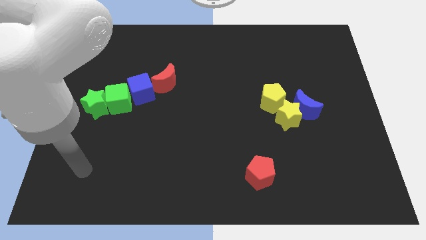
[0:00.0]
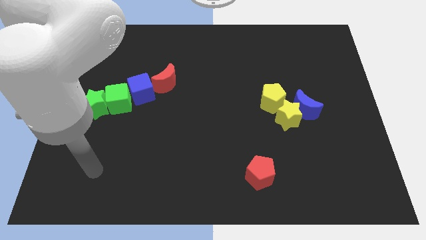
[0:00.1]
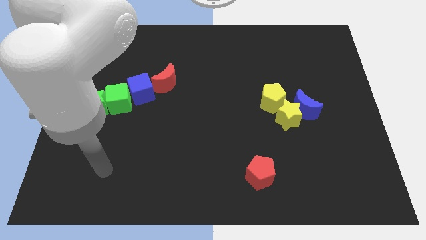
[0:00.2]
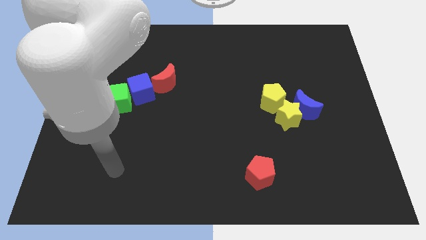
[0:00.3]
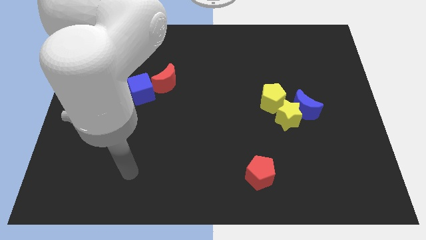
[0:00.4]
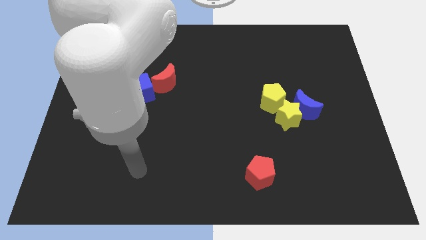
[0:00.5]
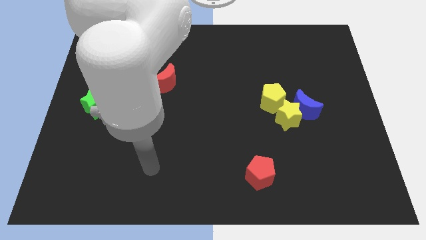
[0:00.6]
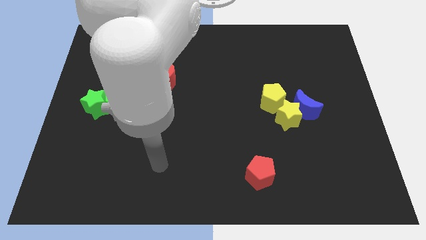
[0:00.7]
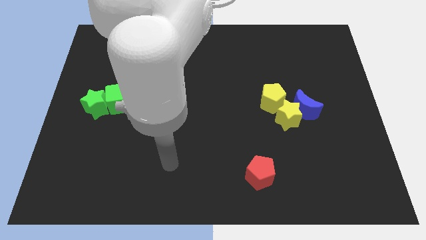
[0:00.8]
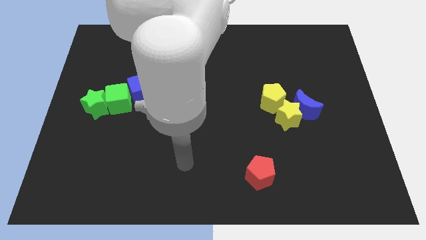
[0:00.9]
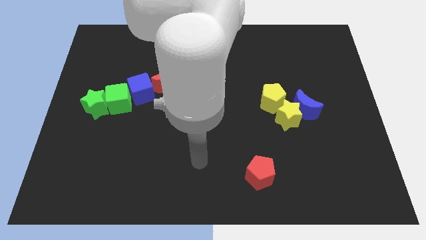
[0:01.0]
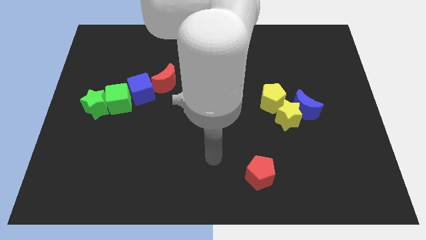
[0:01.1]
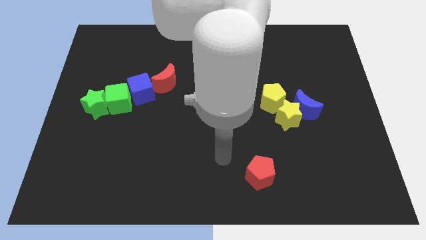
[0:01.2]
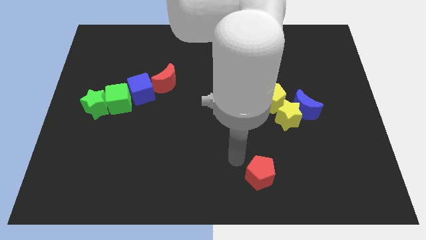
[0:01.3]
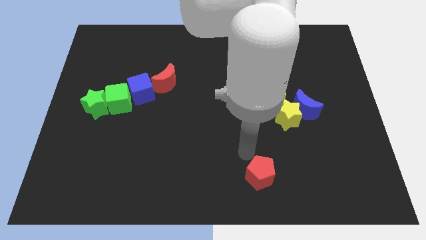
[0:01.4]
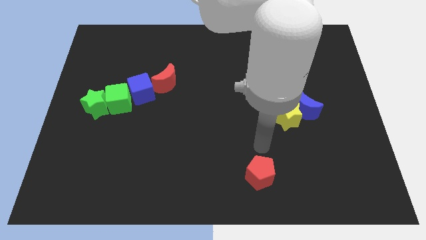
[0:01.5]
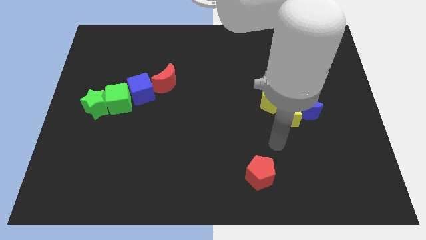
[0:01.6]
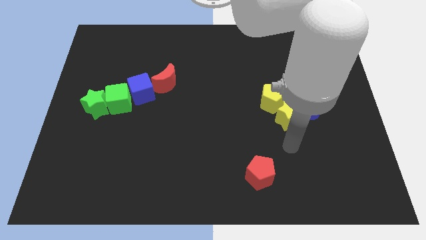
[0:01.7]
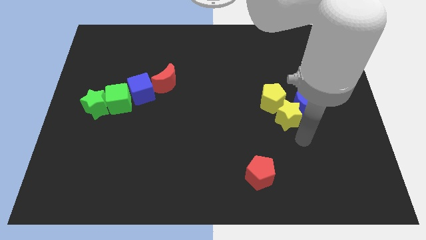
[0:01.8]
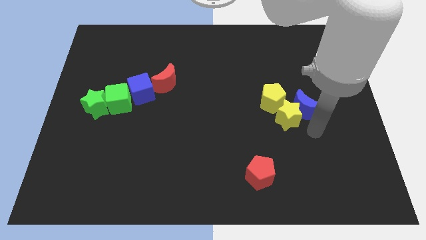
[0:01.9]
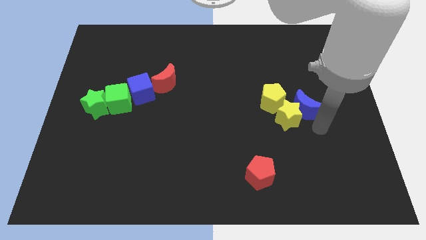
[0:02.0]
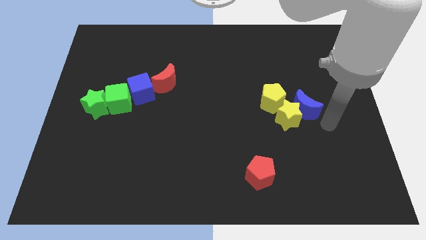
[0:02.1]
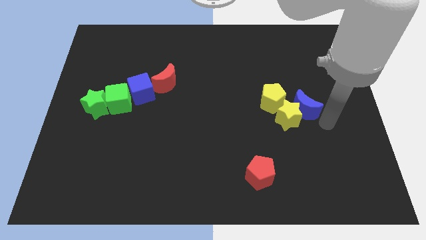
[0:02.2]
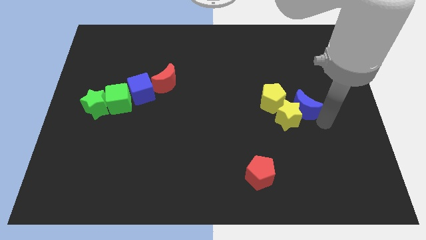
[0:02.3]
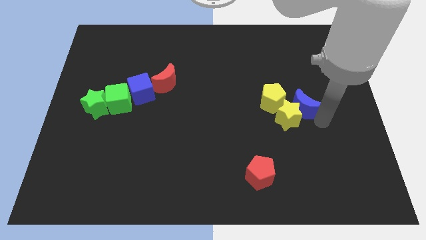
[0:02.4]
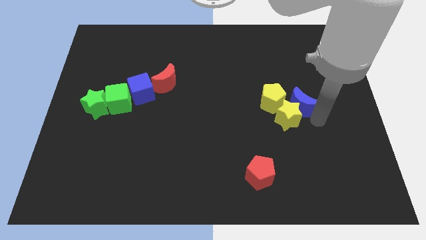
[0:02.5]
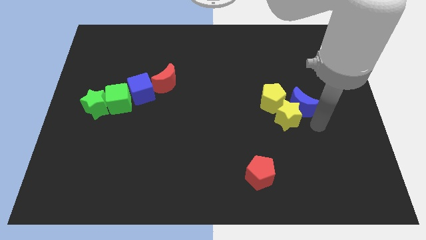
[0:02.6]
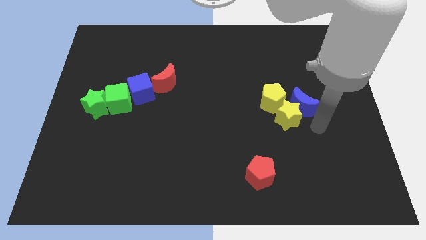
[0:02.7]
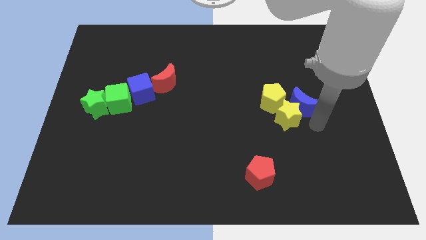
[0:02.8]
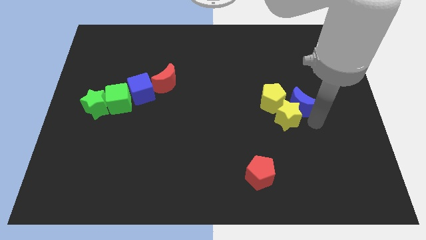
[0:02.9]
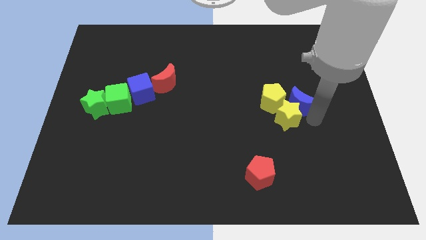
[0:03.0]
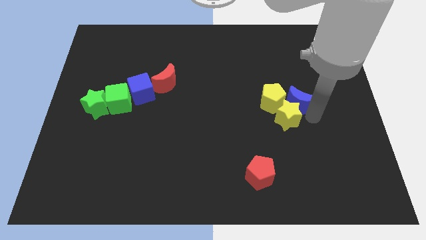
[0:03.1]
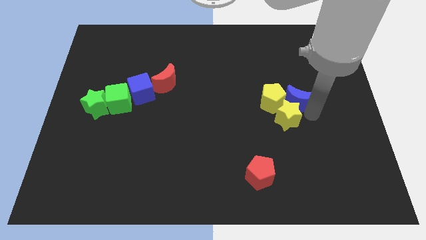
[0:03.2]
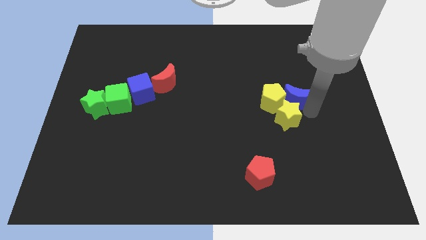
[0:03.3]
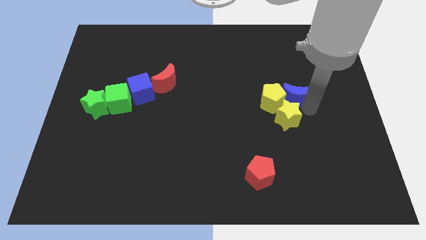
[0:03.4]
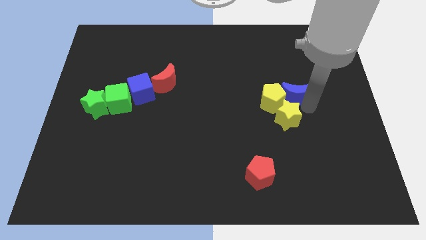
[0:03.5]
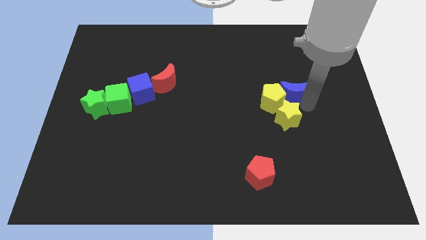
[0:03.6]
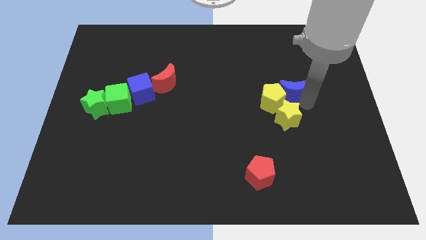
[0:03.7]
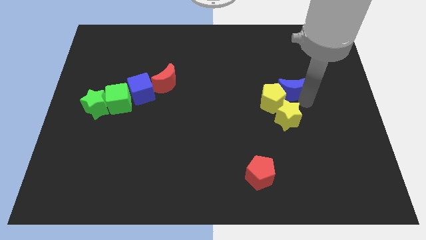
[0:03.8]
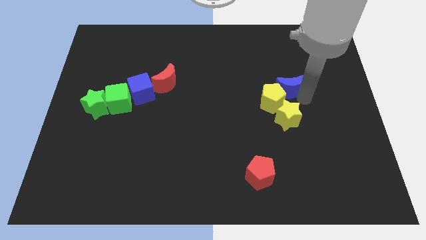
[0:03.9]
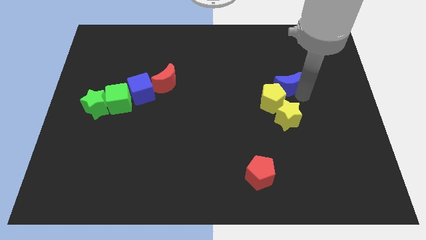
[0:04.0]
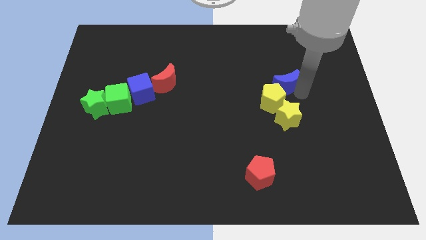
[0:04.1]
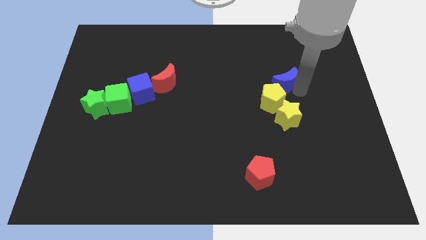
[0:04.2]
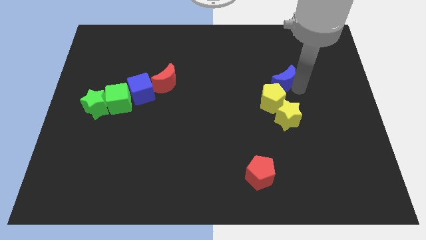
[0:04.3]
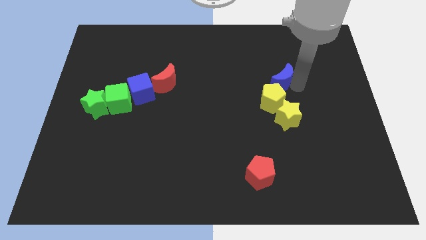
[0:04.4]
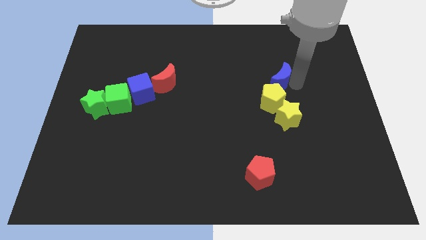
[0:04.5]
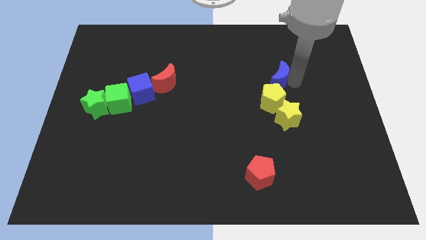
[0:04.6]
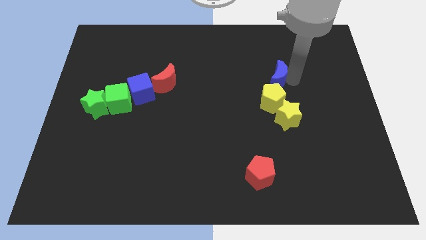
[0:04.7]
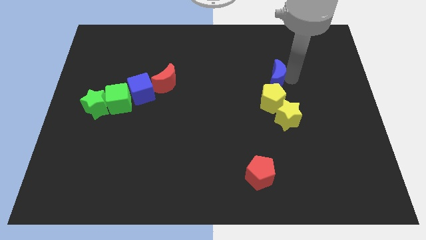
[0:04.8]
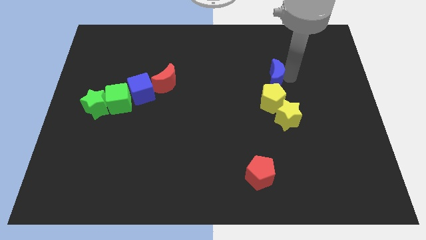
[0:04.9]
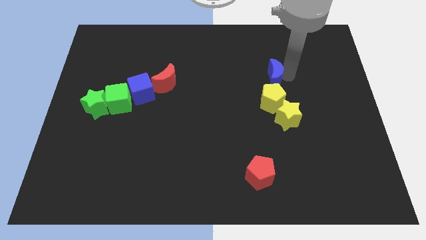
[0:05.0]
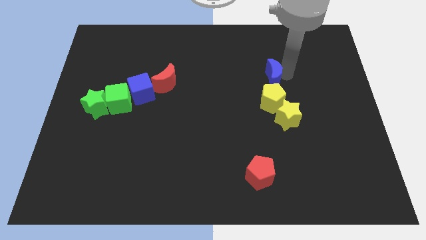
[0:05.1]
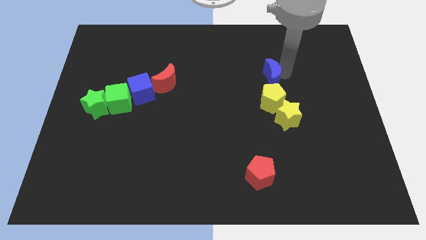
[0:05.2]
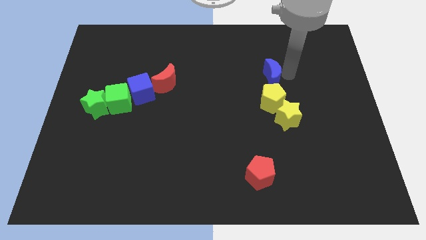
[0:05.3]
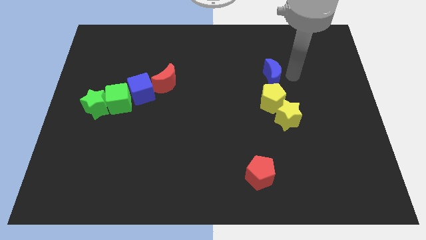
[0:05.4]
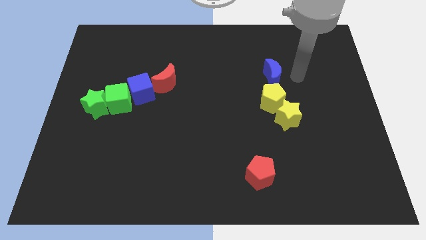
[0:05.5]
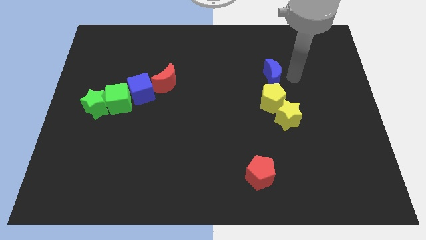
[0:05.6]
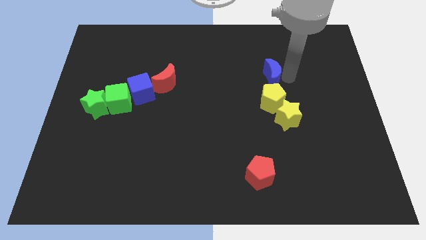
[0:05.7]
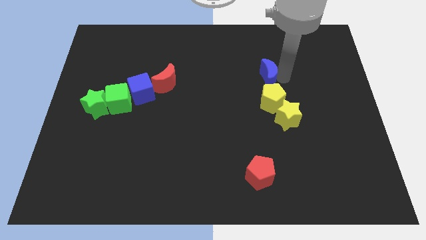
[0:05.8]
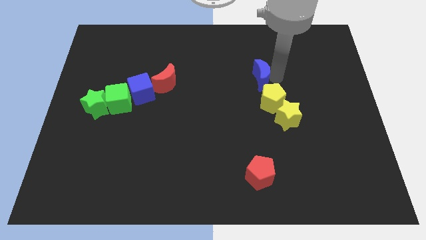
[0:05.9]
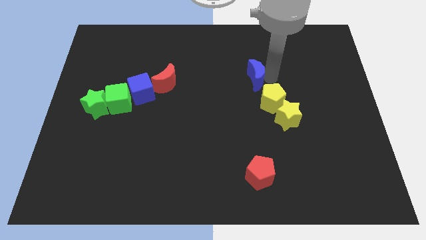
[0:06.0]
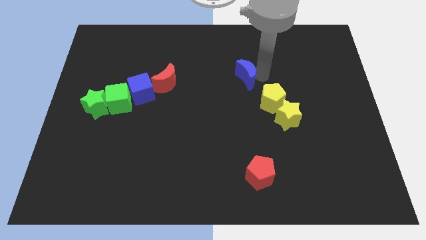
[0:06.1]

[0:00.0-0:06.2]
push the blue moon a bit left

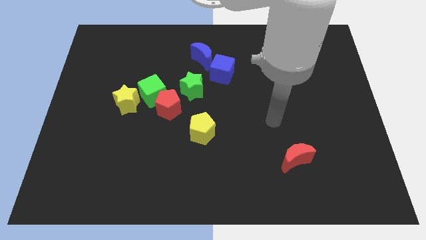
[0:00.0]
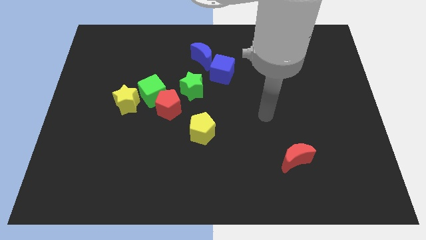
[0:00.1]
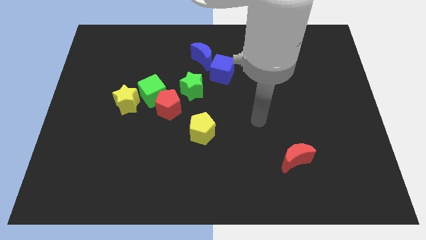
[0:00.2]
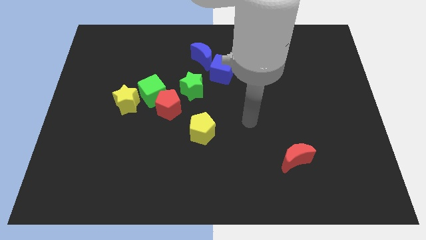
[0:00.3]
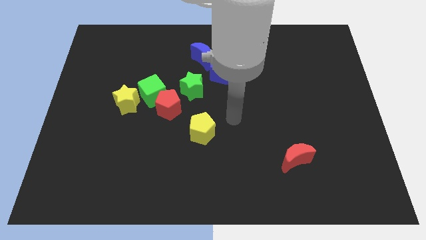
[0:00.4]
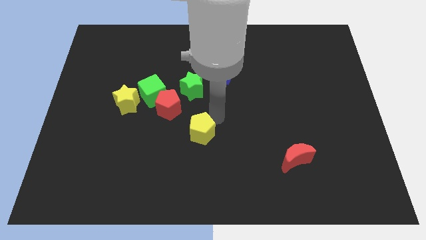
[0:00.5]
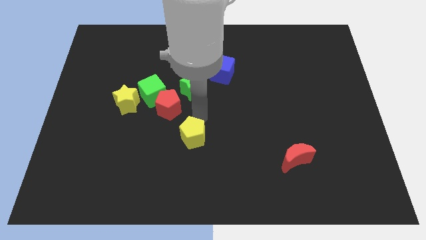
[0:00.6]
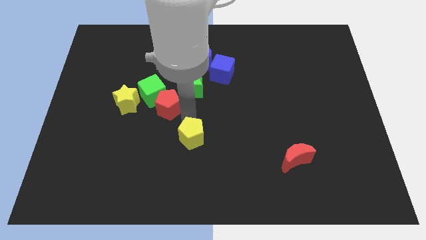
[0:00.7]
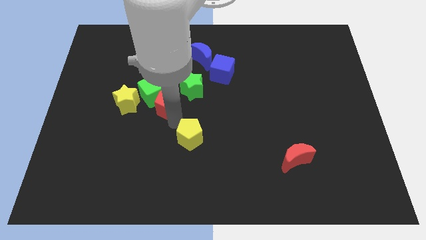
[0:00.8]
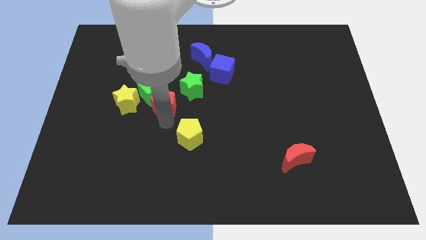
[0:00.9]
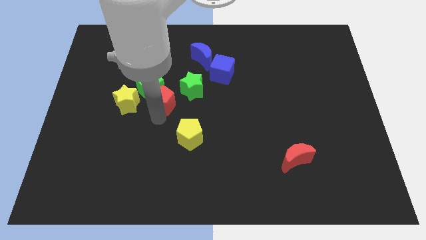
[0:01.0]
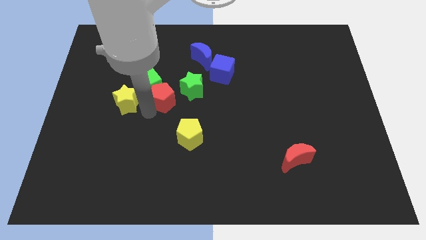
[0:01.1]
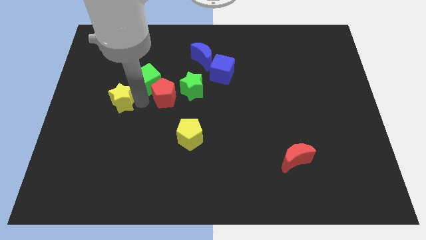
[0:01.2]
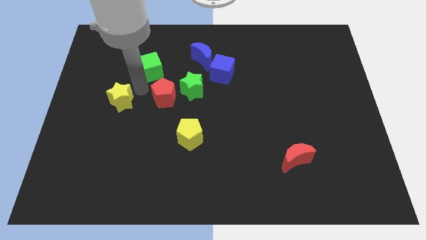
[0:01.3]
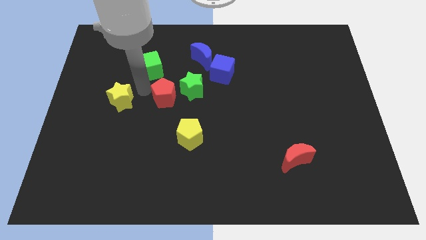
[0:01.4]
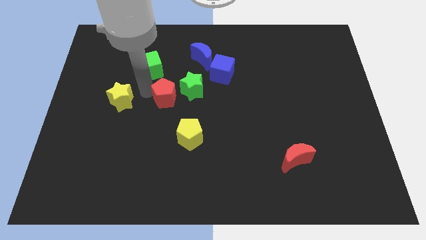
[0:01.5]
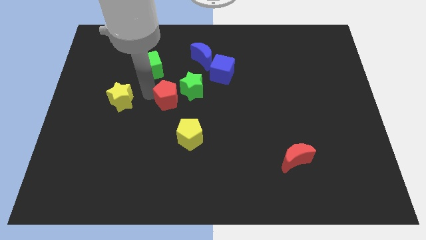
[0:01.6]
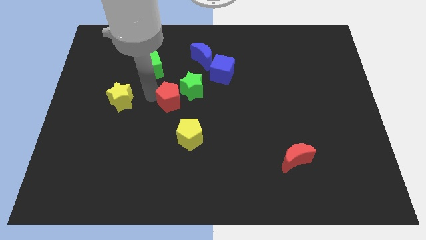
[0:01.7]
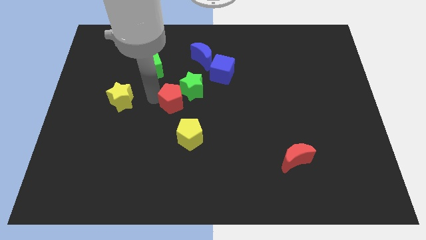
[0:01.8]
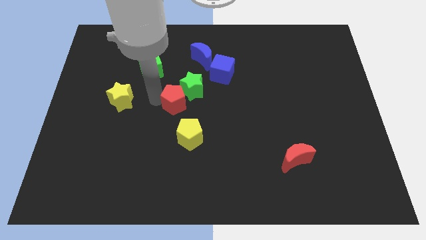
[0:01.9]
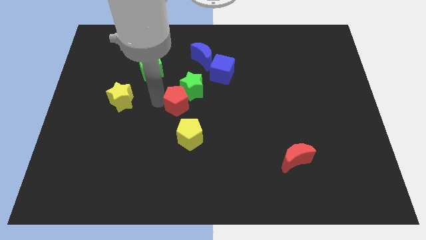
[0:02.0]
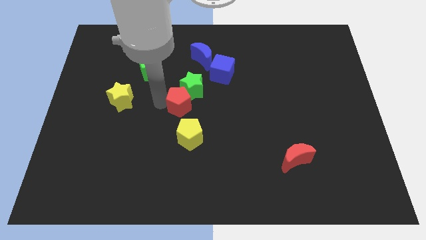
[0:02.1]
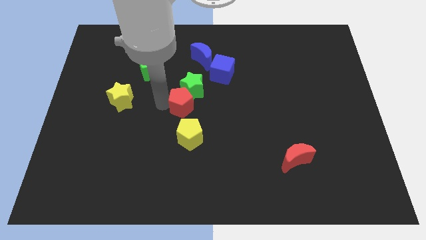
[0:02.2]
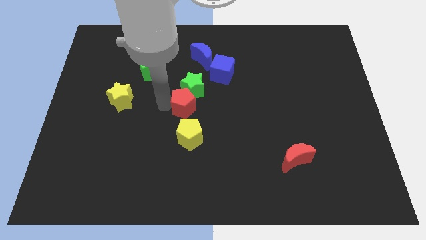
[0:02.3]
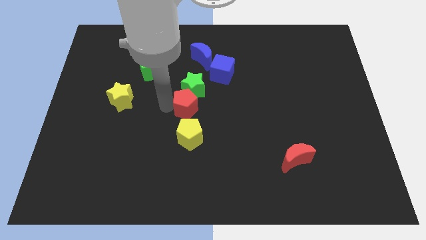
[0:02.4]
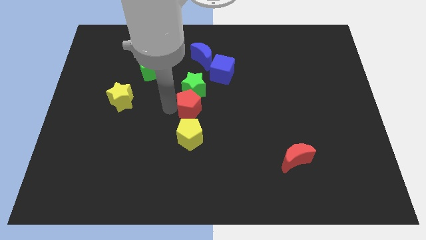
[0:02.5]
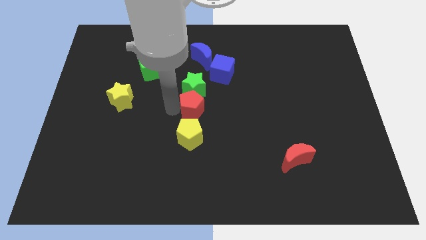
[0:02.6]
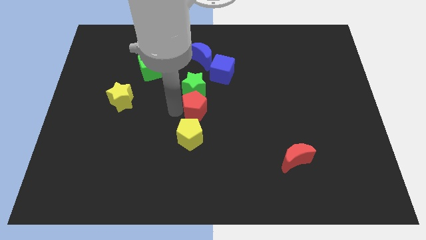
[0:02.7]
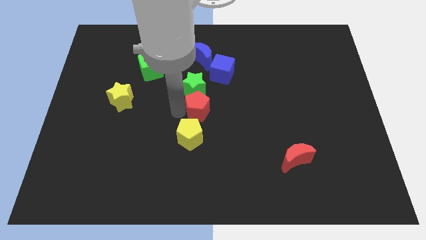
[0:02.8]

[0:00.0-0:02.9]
slightly move the red pentagon right
